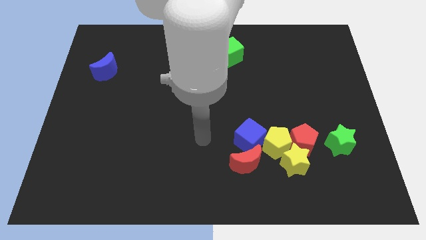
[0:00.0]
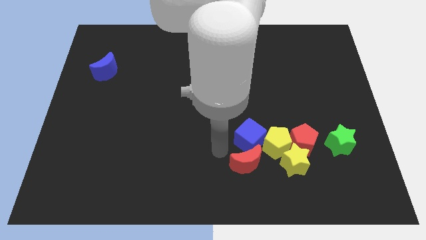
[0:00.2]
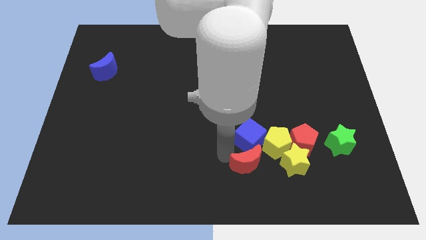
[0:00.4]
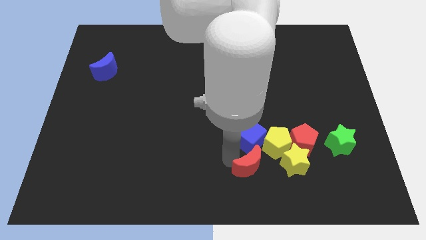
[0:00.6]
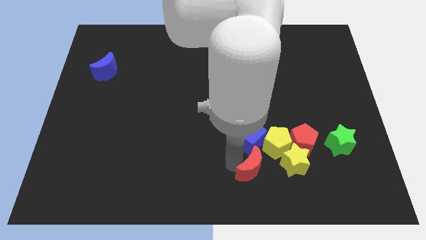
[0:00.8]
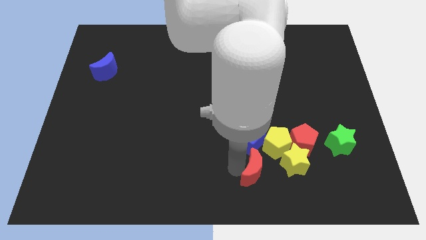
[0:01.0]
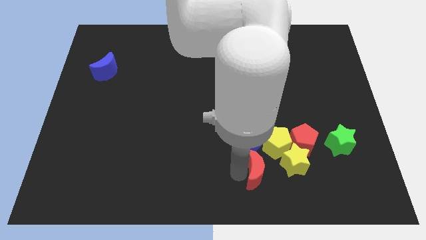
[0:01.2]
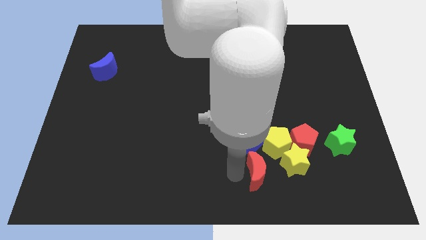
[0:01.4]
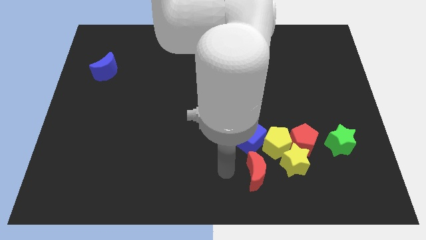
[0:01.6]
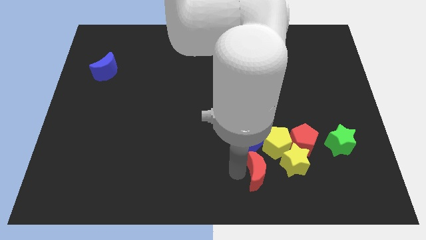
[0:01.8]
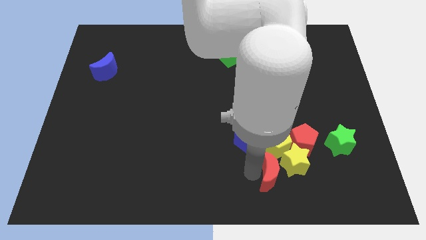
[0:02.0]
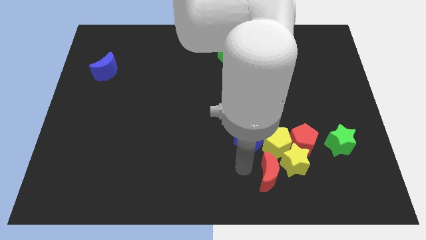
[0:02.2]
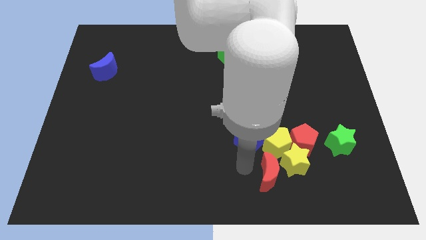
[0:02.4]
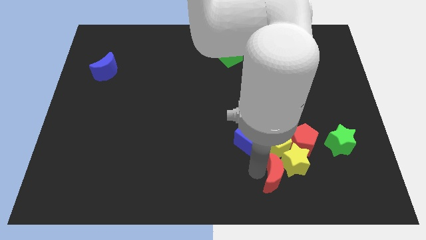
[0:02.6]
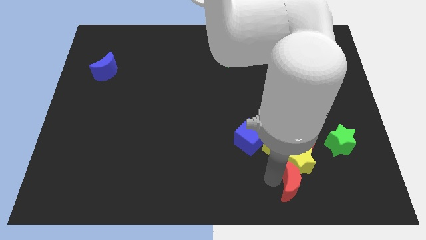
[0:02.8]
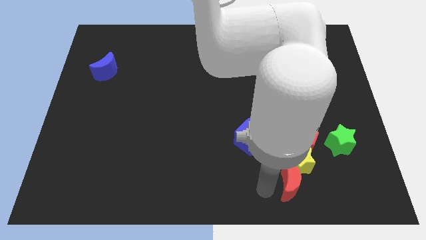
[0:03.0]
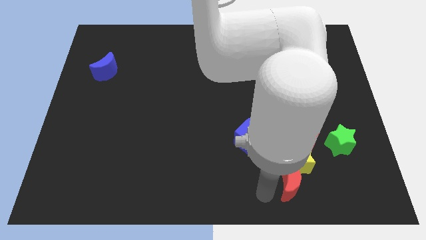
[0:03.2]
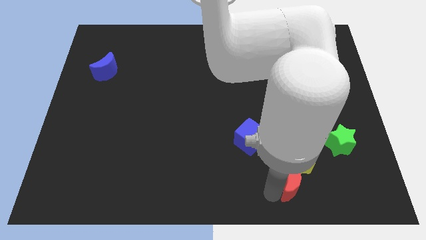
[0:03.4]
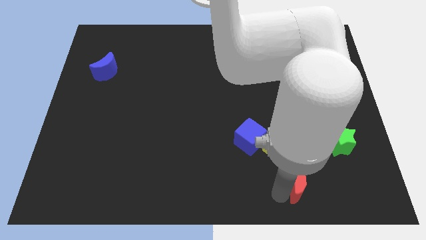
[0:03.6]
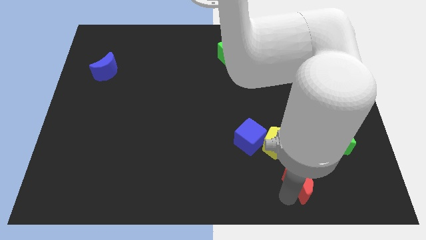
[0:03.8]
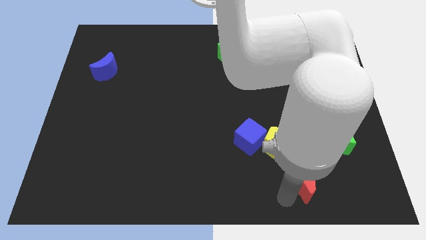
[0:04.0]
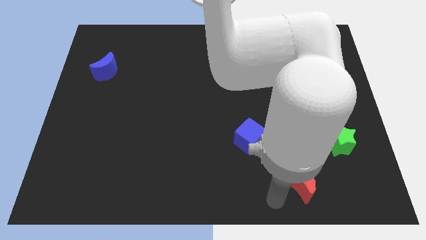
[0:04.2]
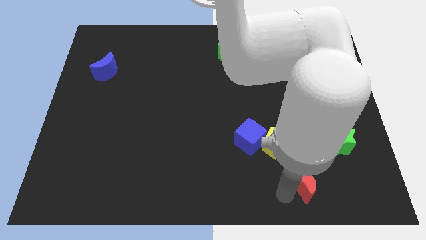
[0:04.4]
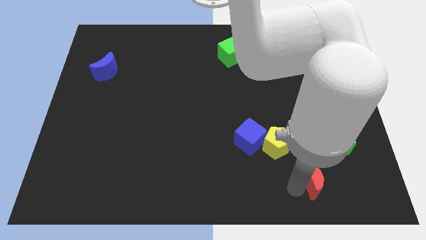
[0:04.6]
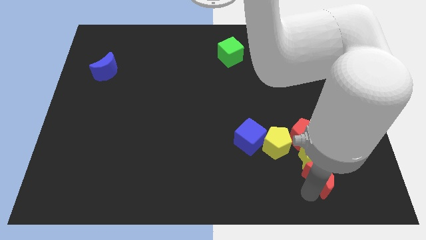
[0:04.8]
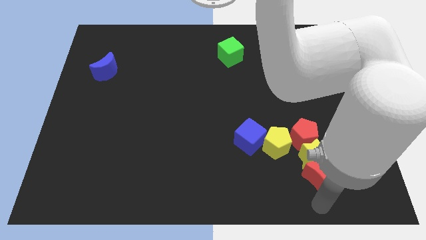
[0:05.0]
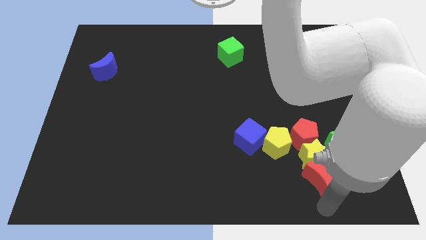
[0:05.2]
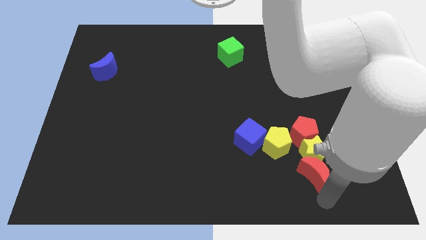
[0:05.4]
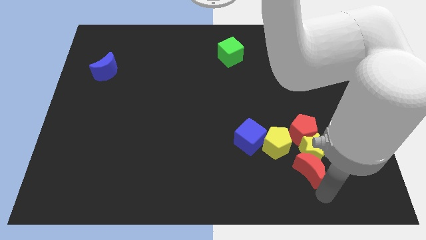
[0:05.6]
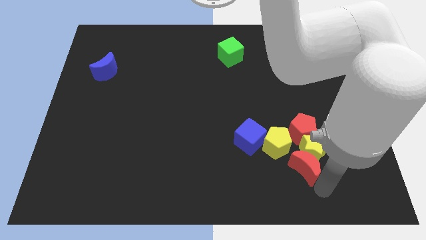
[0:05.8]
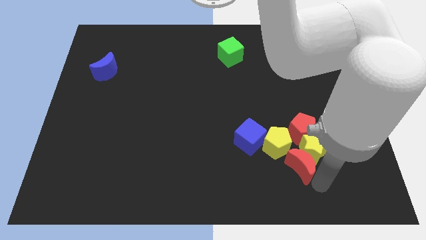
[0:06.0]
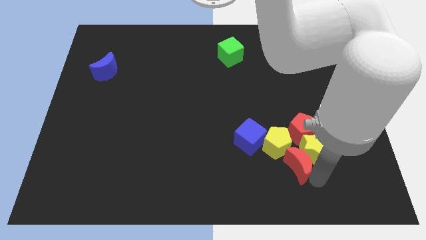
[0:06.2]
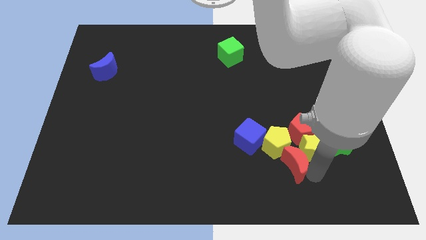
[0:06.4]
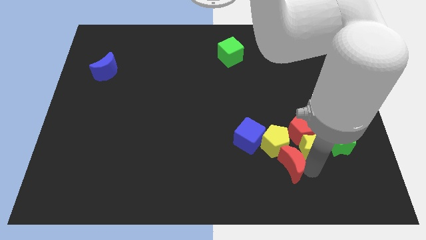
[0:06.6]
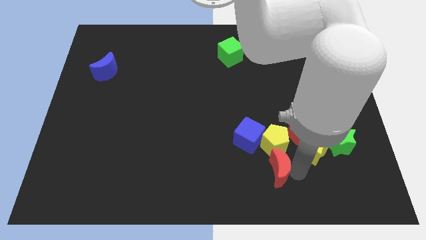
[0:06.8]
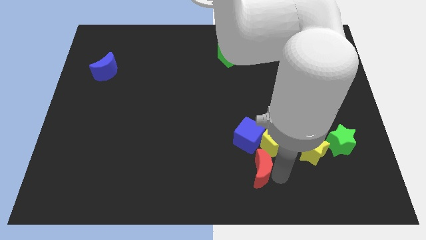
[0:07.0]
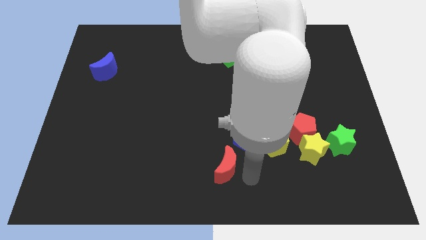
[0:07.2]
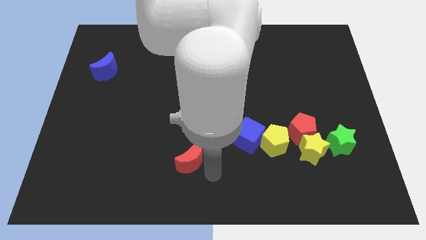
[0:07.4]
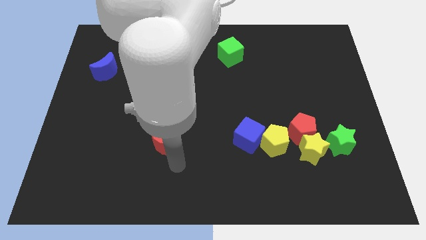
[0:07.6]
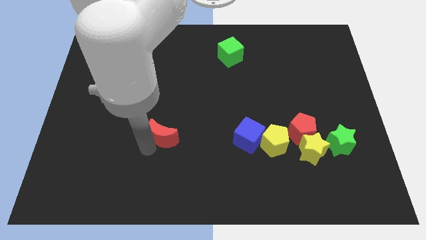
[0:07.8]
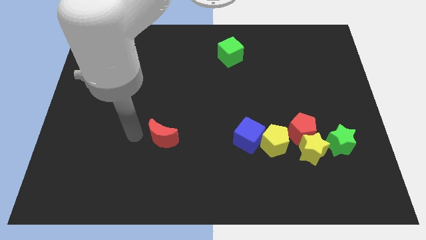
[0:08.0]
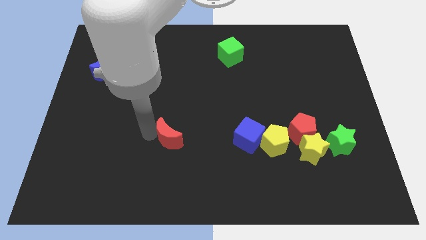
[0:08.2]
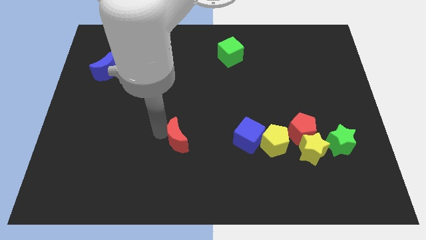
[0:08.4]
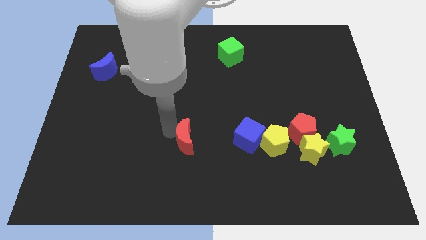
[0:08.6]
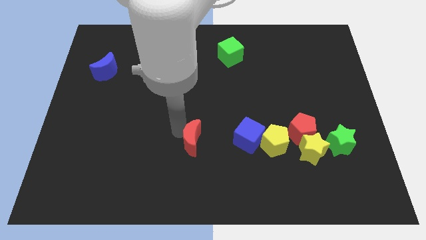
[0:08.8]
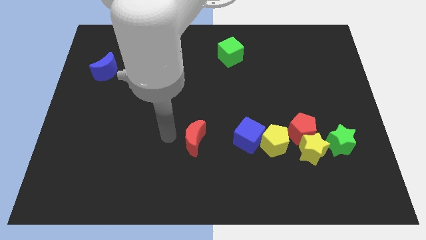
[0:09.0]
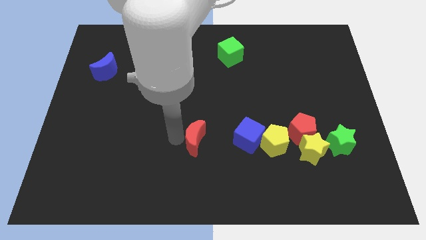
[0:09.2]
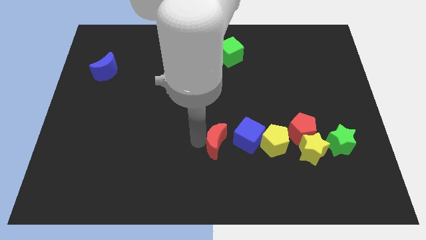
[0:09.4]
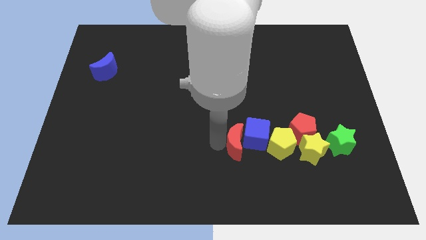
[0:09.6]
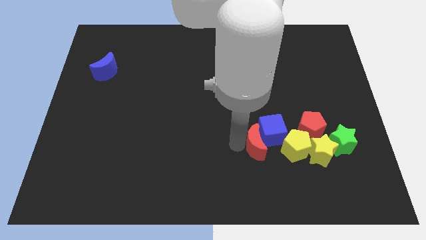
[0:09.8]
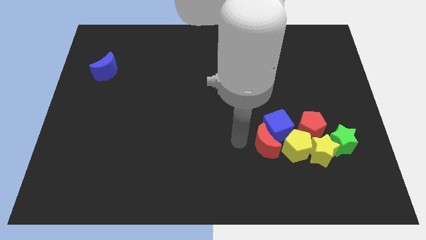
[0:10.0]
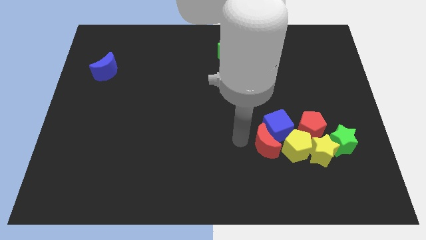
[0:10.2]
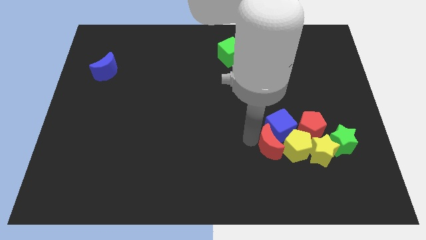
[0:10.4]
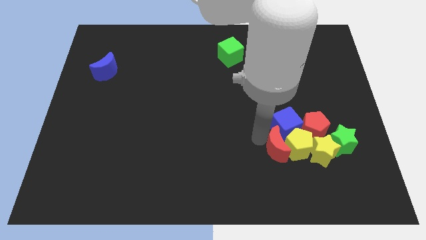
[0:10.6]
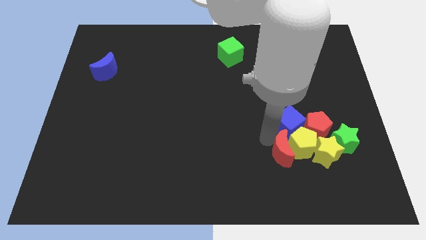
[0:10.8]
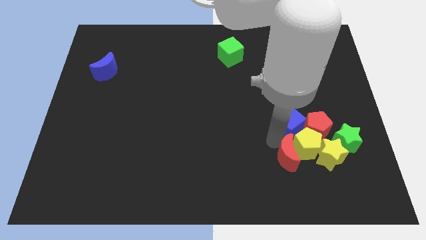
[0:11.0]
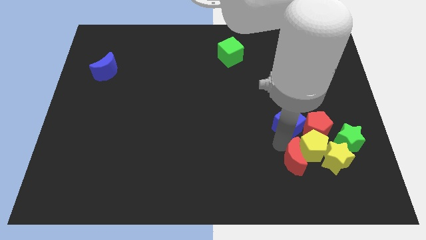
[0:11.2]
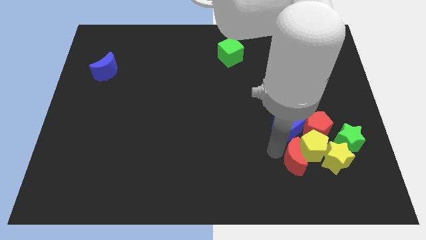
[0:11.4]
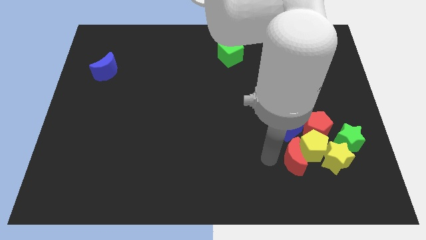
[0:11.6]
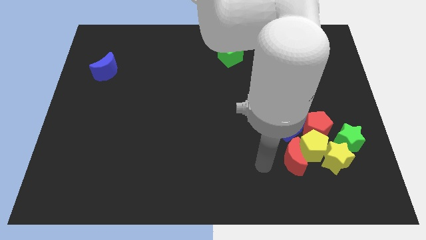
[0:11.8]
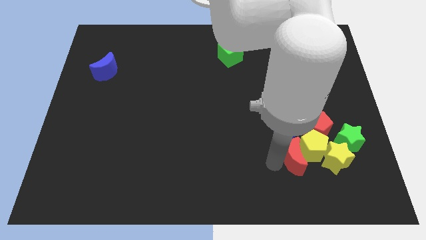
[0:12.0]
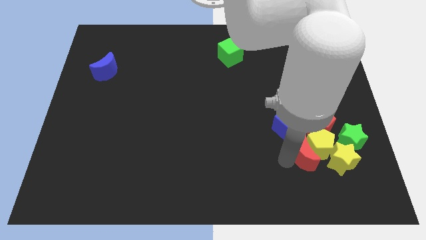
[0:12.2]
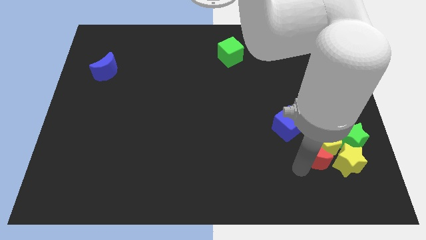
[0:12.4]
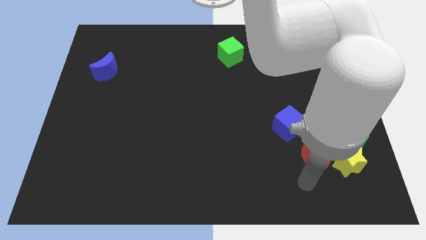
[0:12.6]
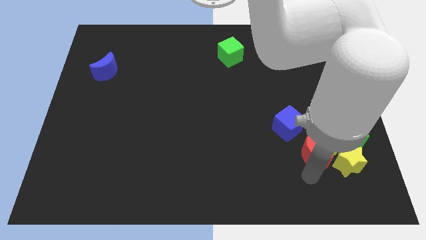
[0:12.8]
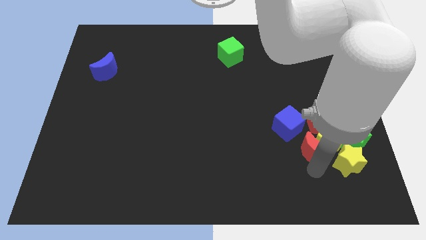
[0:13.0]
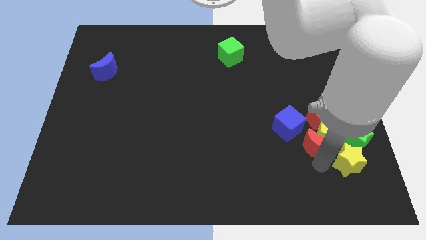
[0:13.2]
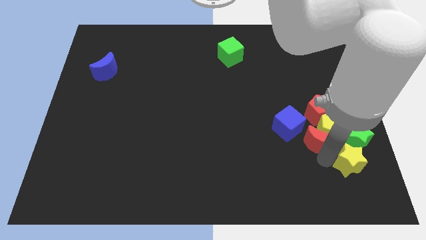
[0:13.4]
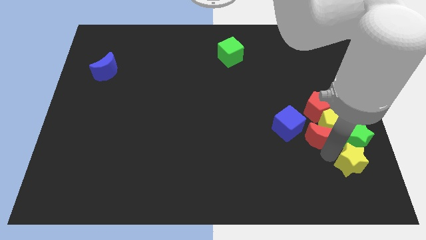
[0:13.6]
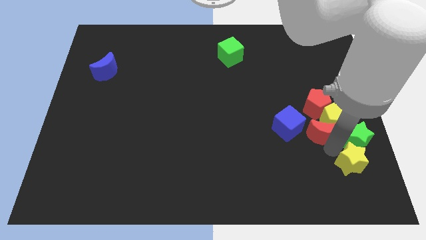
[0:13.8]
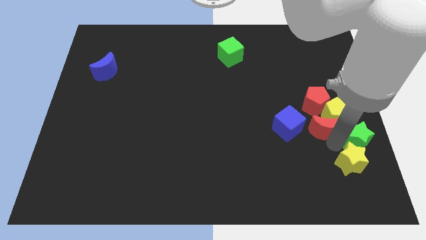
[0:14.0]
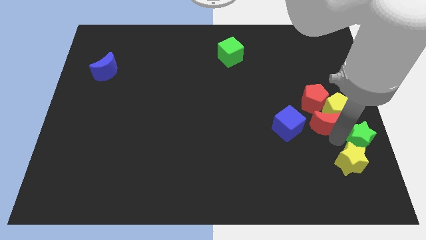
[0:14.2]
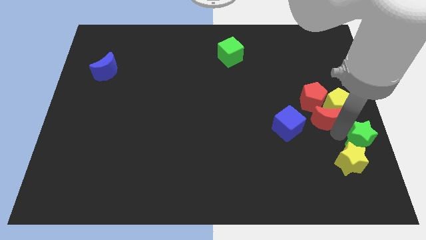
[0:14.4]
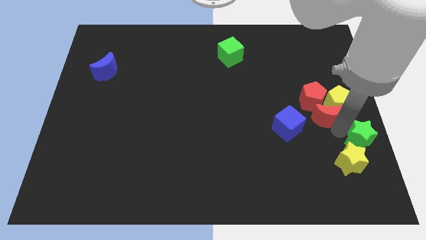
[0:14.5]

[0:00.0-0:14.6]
slide the red moon close to the red pentagon
